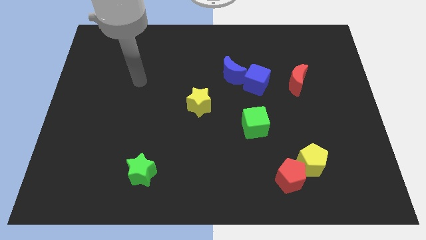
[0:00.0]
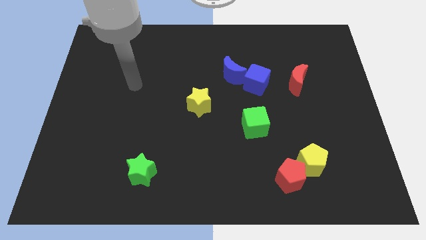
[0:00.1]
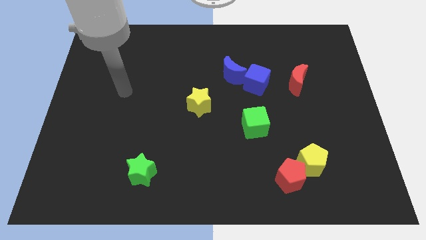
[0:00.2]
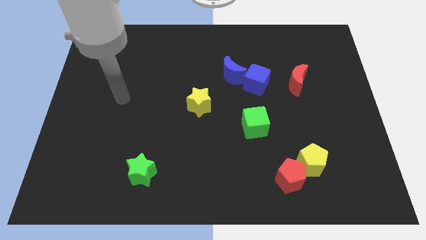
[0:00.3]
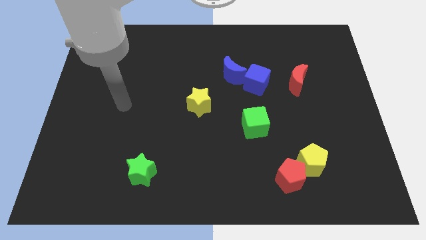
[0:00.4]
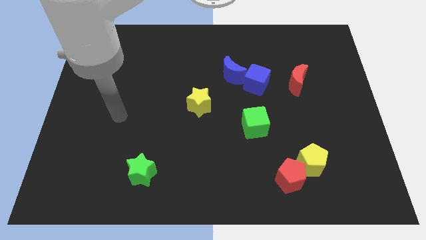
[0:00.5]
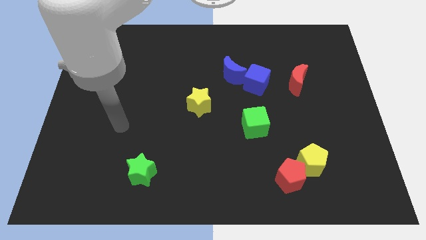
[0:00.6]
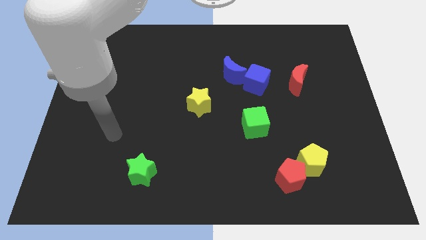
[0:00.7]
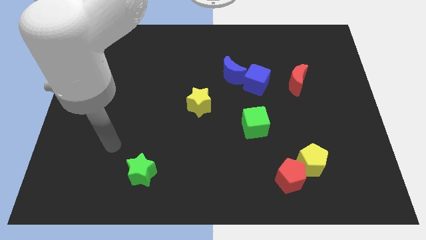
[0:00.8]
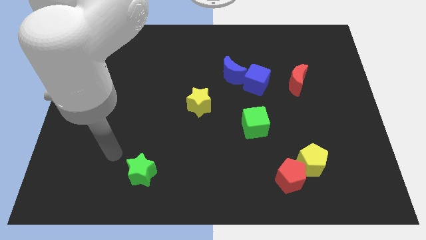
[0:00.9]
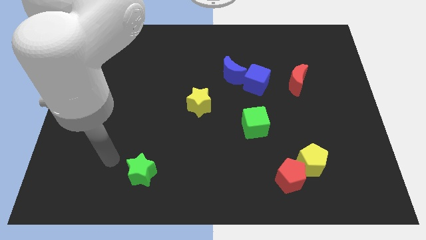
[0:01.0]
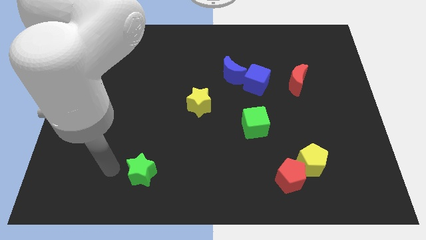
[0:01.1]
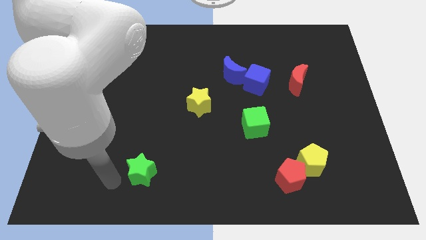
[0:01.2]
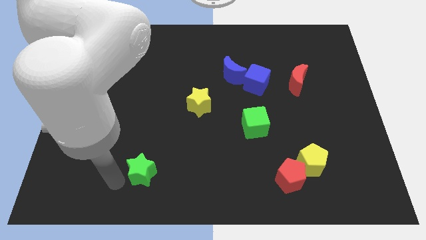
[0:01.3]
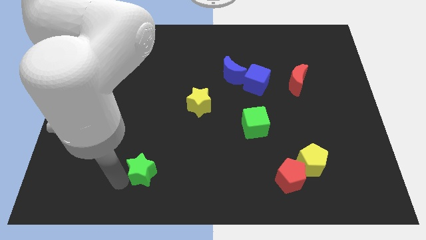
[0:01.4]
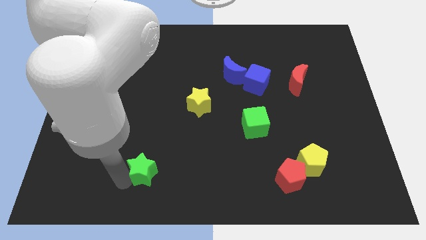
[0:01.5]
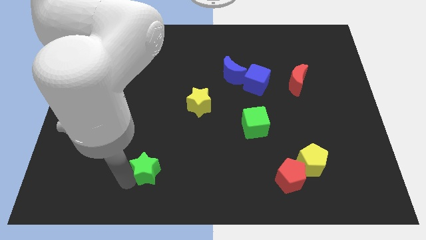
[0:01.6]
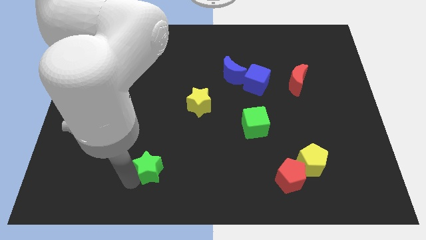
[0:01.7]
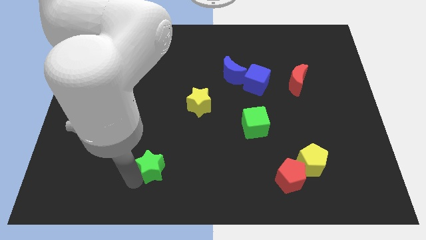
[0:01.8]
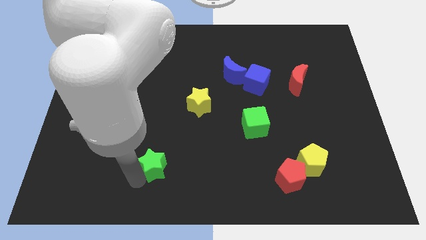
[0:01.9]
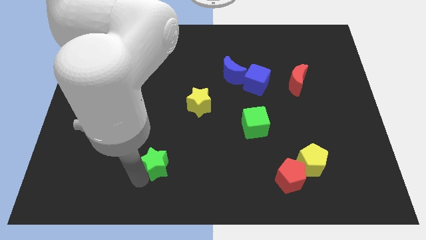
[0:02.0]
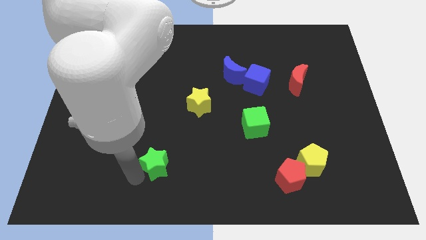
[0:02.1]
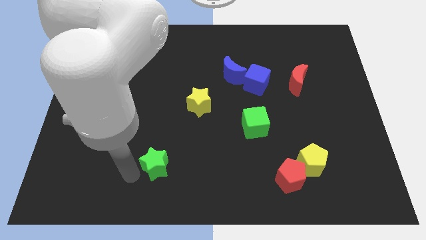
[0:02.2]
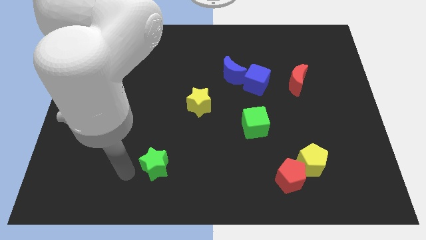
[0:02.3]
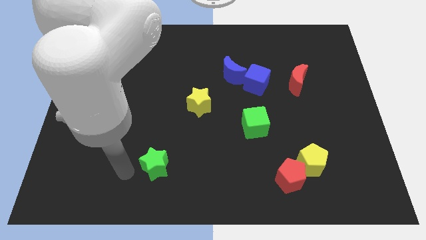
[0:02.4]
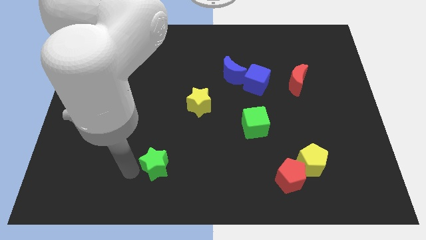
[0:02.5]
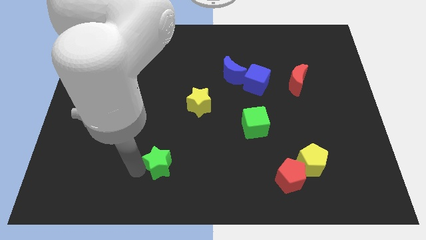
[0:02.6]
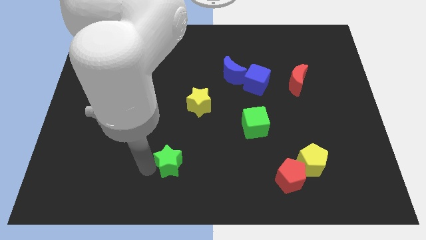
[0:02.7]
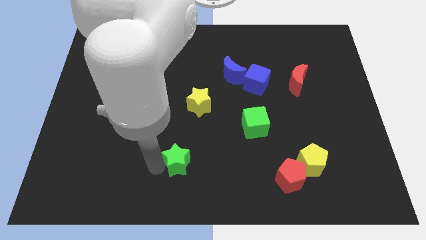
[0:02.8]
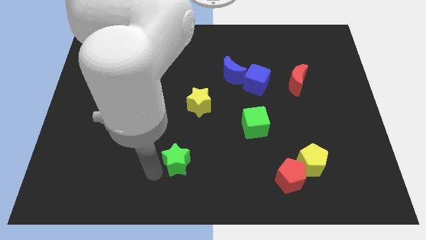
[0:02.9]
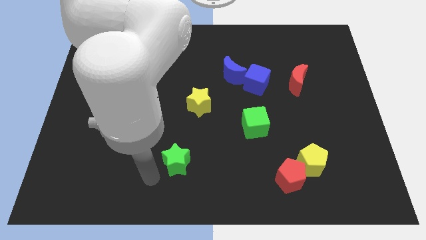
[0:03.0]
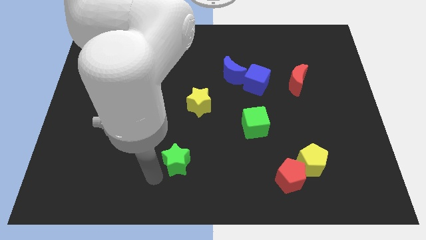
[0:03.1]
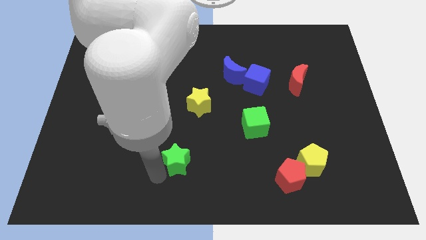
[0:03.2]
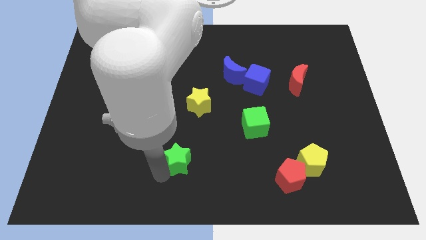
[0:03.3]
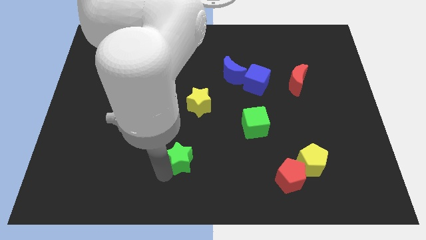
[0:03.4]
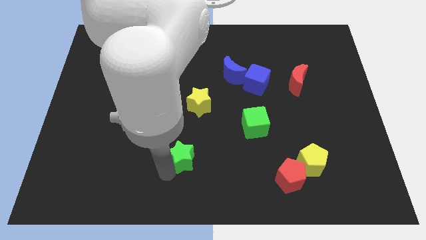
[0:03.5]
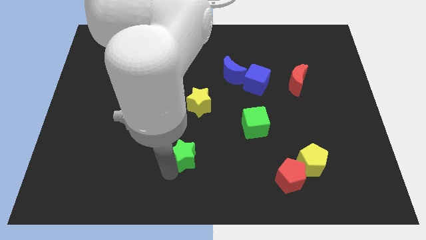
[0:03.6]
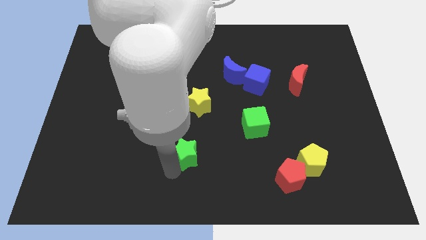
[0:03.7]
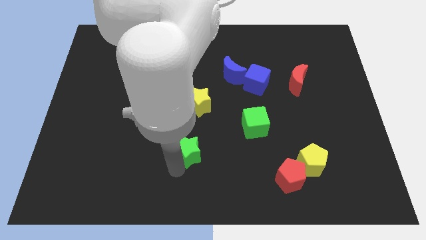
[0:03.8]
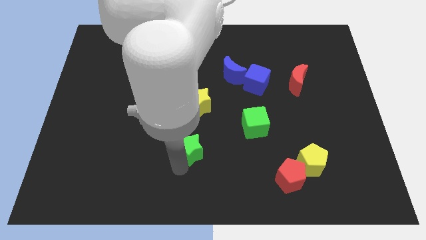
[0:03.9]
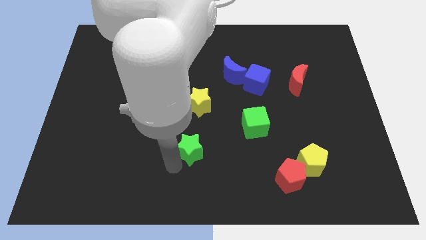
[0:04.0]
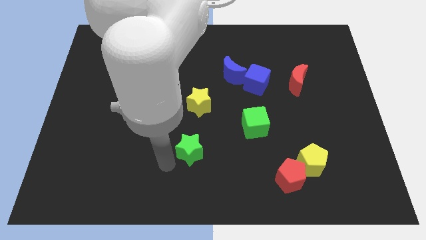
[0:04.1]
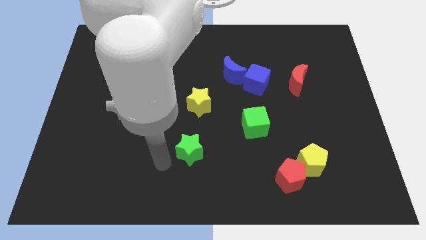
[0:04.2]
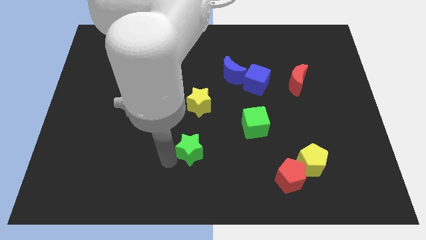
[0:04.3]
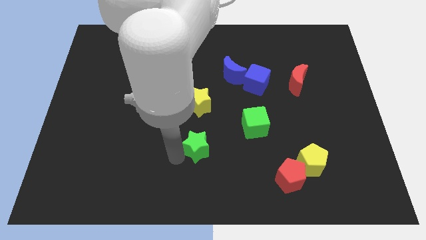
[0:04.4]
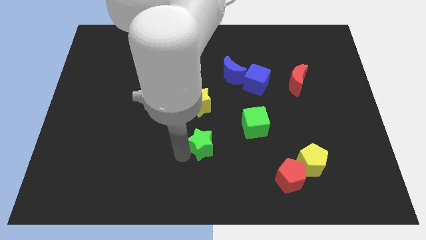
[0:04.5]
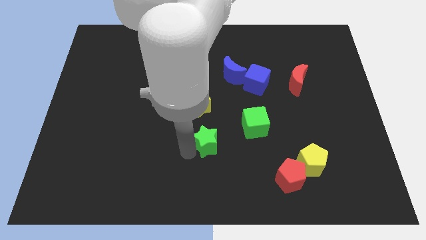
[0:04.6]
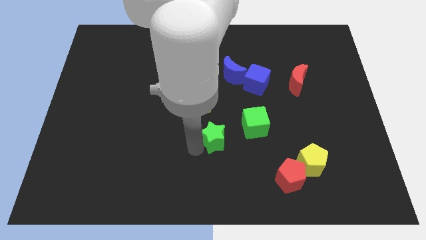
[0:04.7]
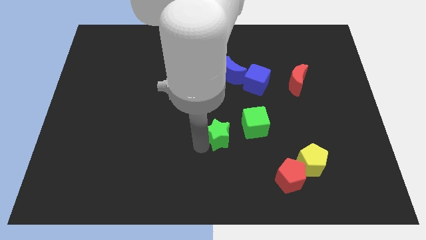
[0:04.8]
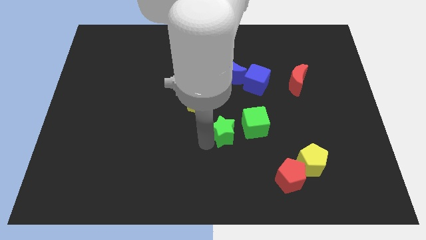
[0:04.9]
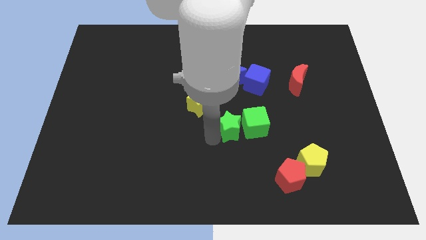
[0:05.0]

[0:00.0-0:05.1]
move the green star towards the green cube

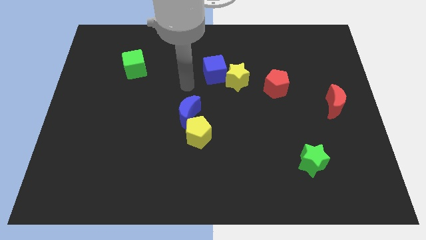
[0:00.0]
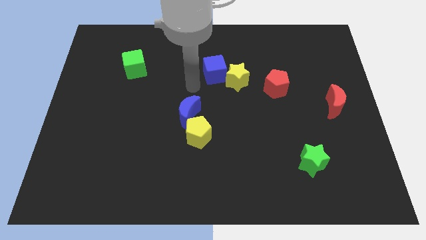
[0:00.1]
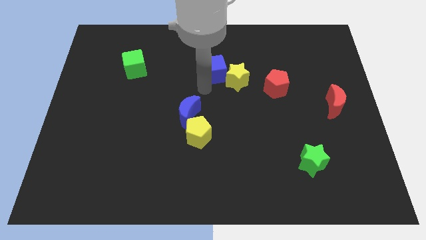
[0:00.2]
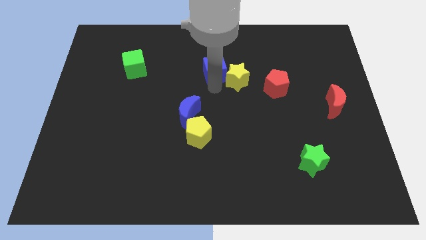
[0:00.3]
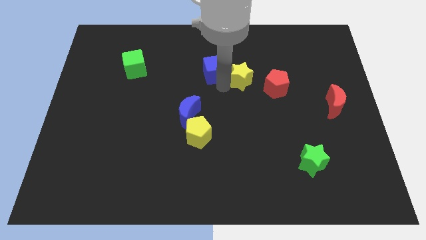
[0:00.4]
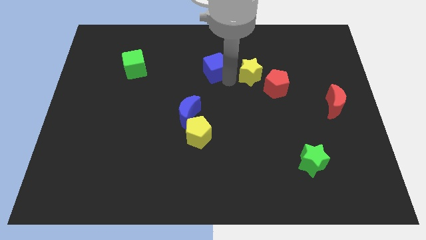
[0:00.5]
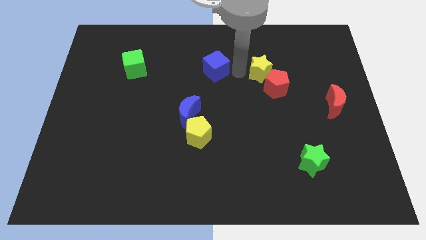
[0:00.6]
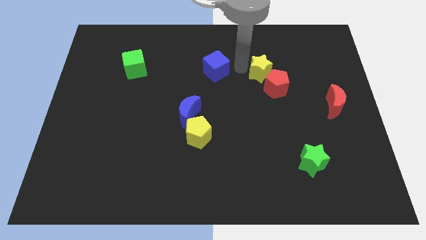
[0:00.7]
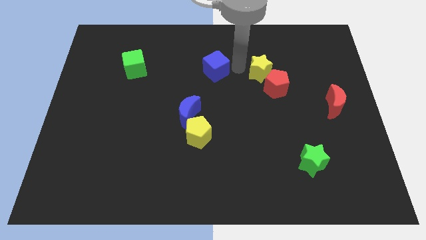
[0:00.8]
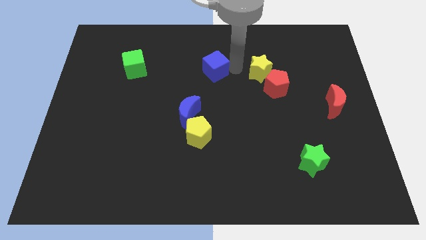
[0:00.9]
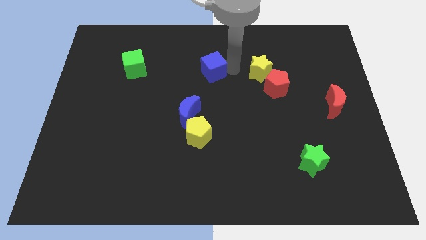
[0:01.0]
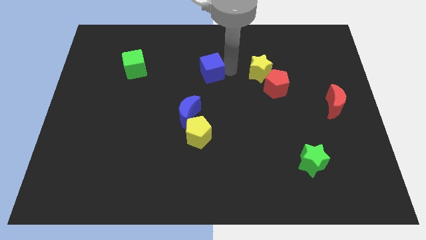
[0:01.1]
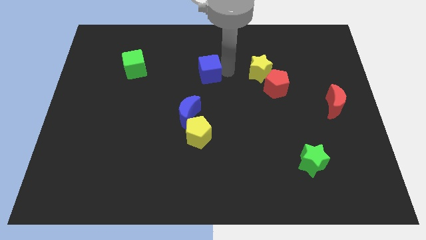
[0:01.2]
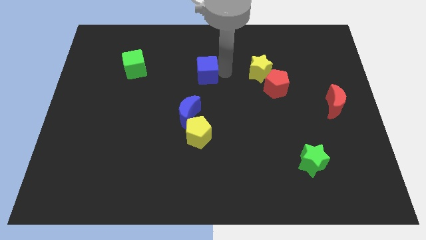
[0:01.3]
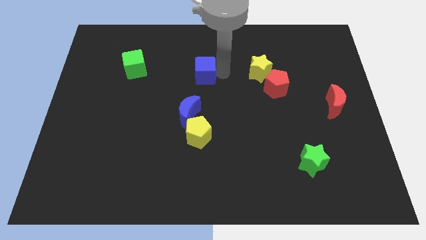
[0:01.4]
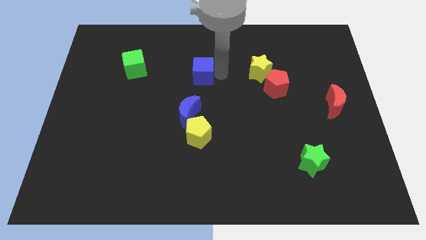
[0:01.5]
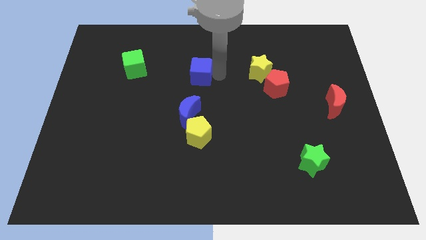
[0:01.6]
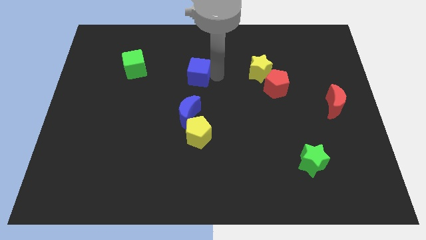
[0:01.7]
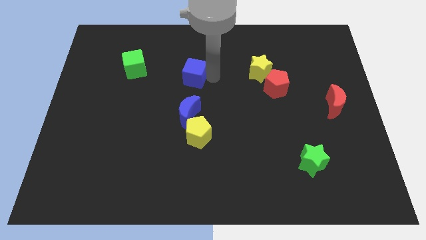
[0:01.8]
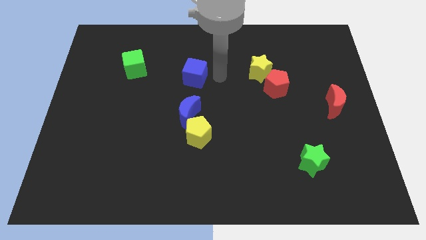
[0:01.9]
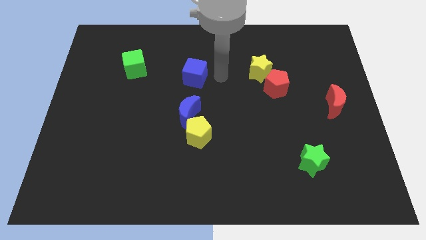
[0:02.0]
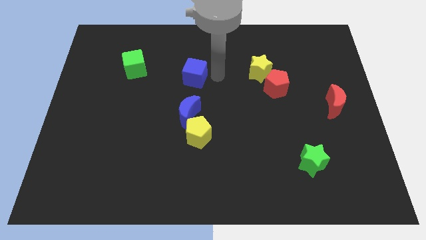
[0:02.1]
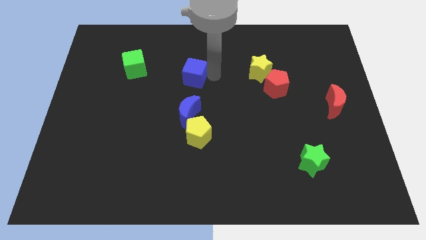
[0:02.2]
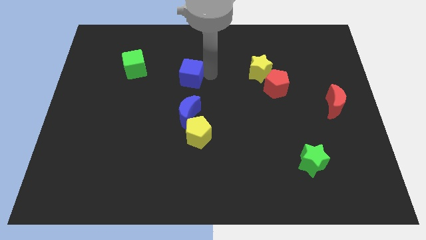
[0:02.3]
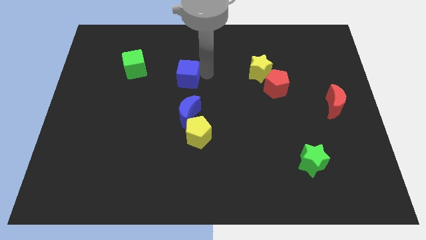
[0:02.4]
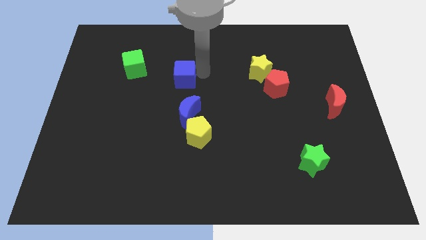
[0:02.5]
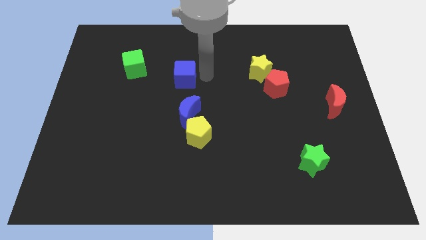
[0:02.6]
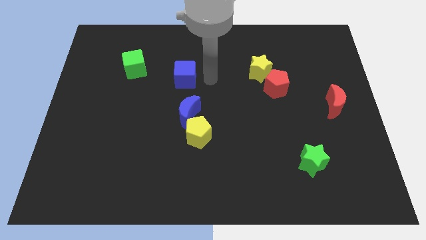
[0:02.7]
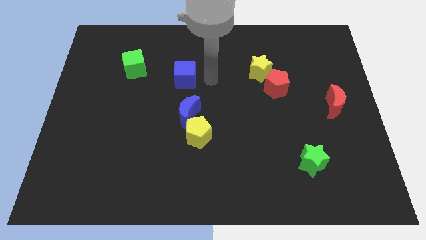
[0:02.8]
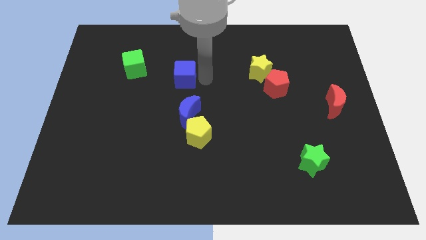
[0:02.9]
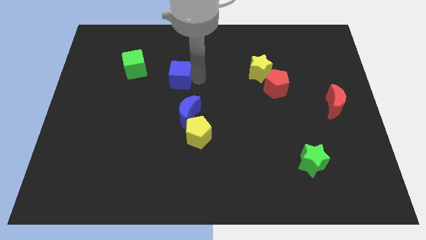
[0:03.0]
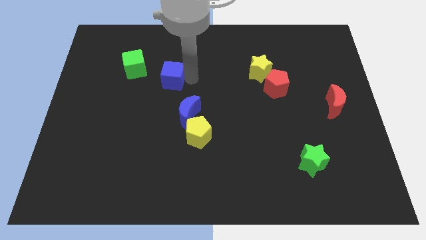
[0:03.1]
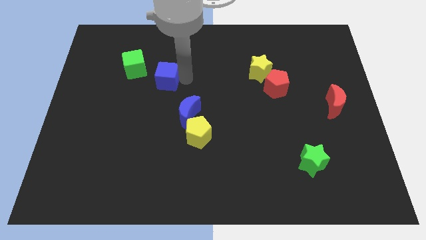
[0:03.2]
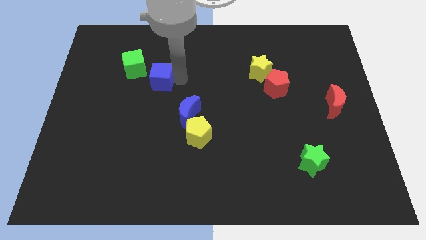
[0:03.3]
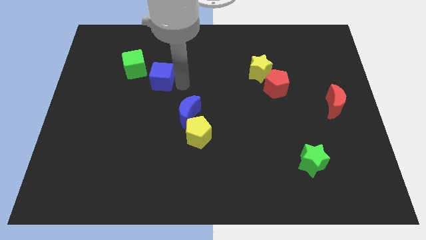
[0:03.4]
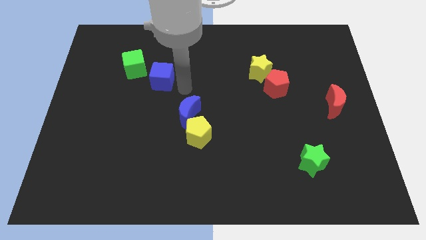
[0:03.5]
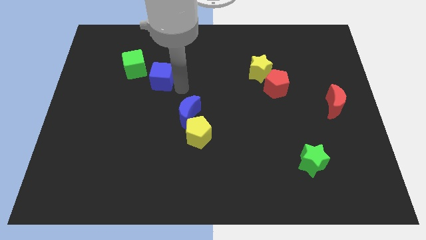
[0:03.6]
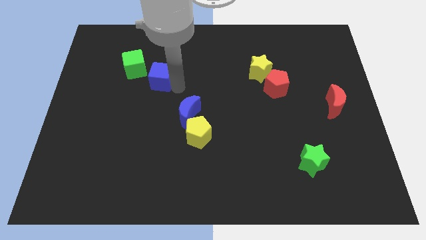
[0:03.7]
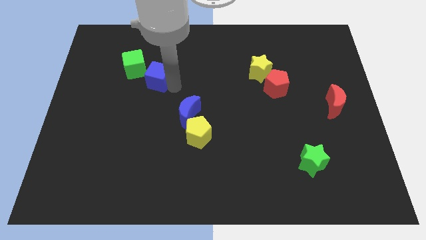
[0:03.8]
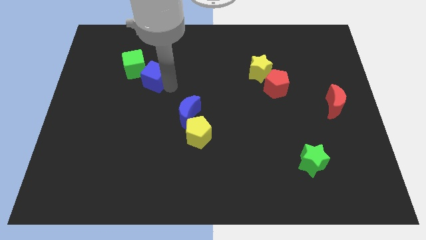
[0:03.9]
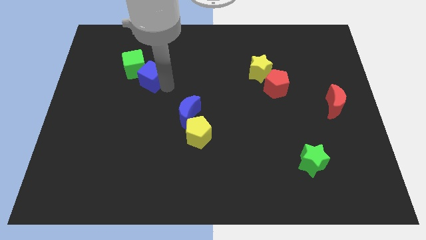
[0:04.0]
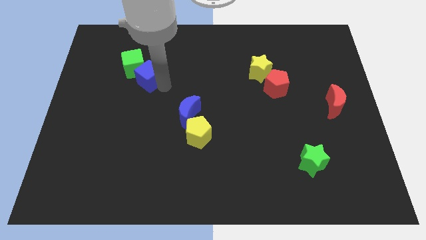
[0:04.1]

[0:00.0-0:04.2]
put the blue cube close to the green cube
